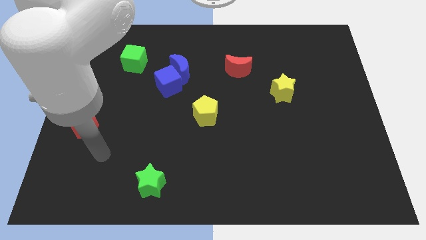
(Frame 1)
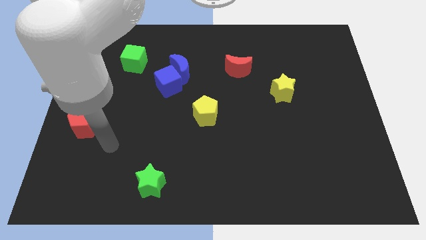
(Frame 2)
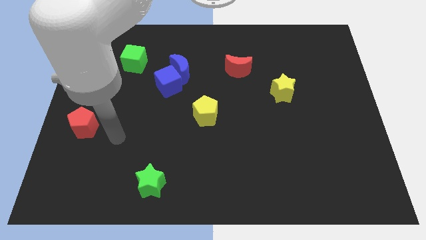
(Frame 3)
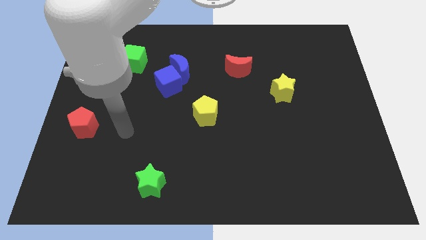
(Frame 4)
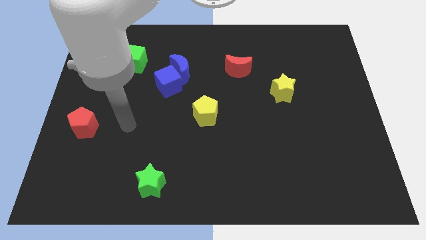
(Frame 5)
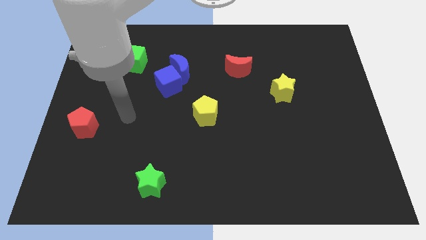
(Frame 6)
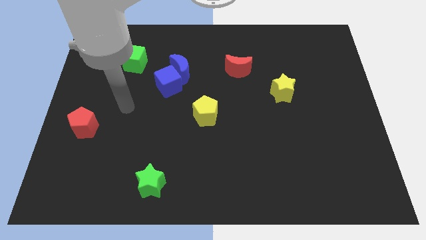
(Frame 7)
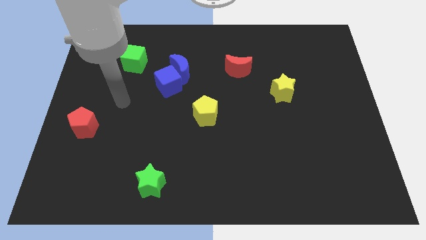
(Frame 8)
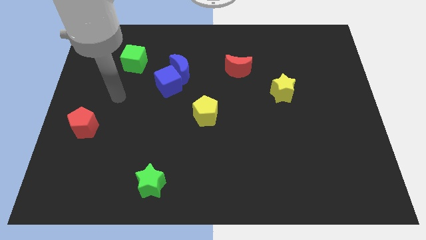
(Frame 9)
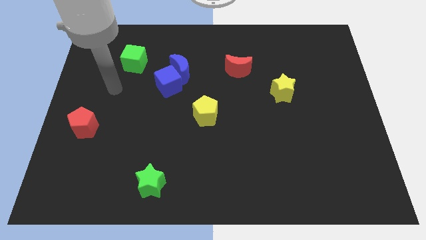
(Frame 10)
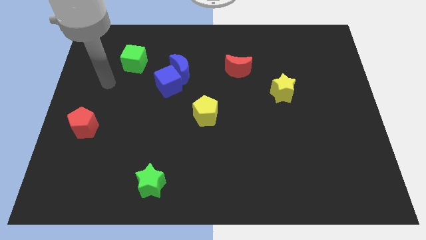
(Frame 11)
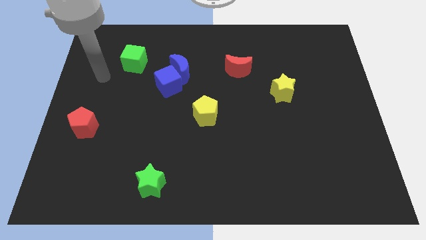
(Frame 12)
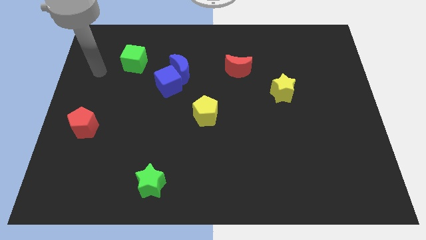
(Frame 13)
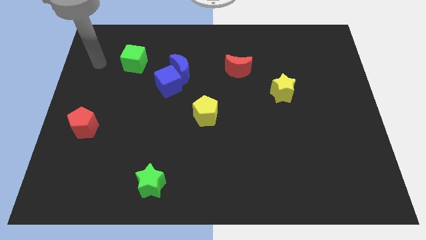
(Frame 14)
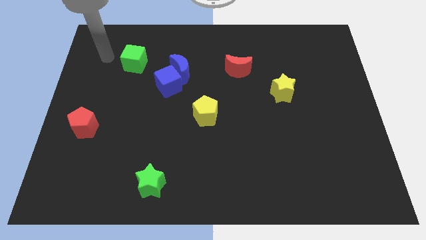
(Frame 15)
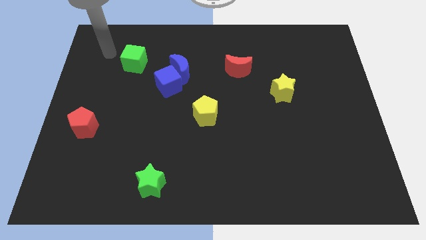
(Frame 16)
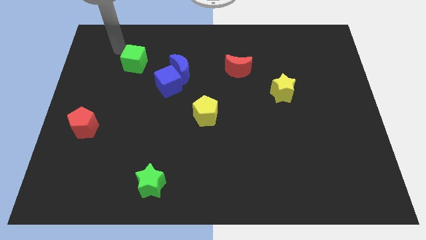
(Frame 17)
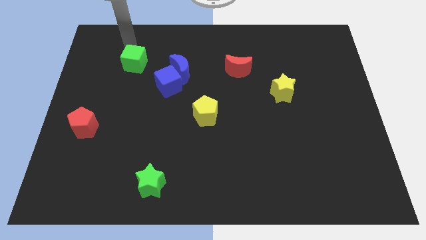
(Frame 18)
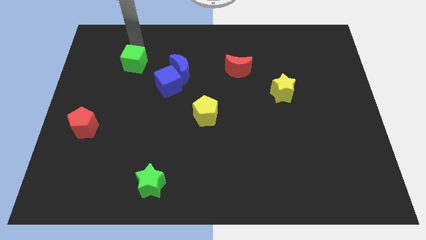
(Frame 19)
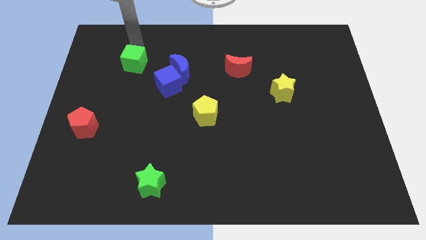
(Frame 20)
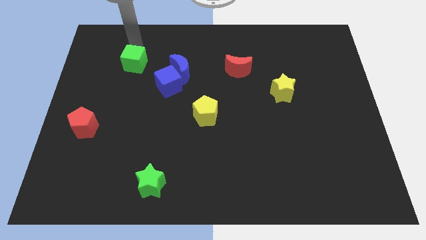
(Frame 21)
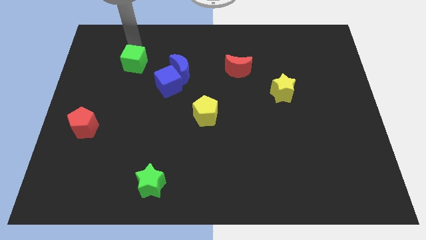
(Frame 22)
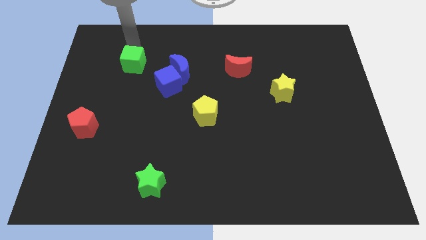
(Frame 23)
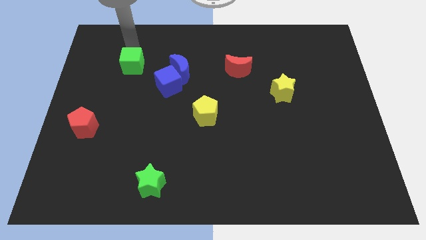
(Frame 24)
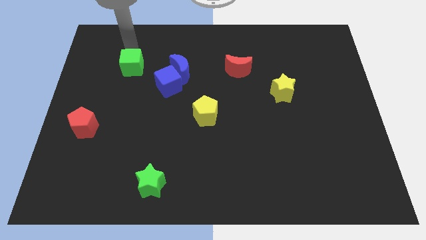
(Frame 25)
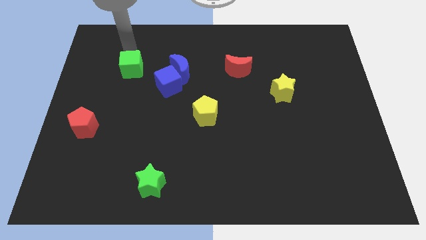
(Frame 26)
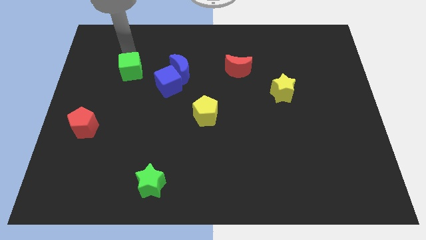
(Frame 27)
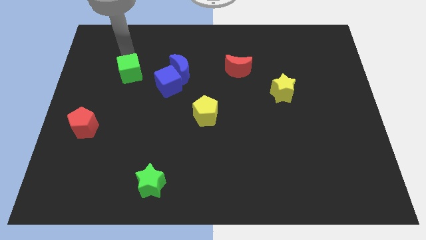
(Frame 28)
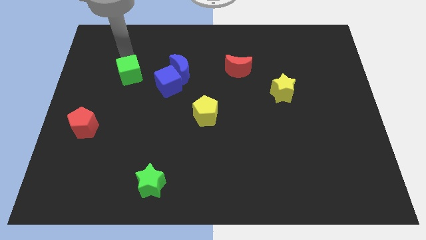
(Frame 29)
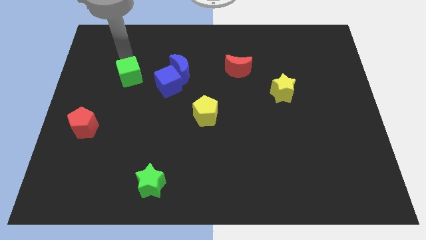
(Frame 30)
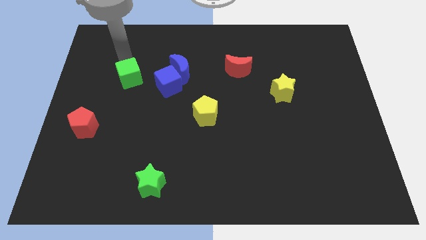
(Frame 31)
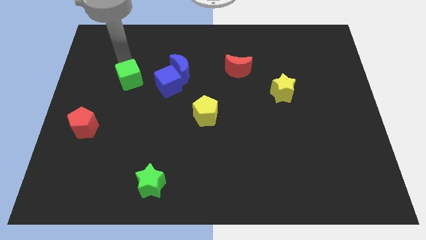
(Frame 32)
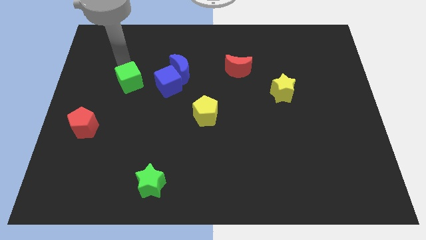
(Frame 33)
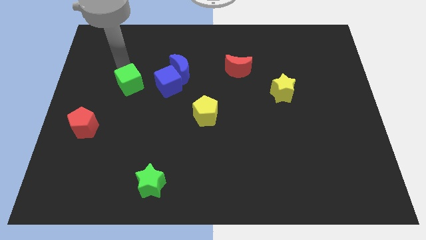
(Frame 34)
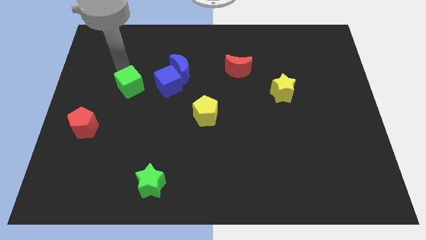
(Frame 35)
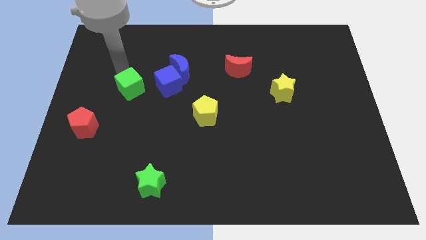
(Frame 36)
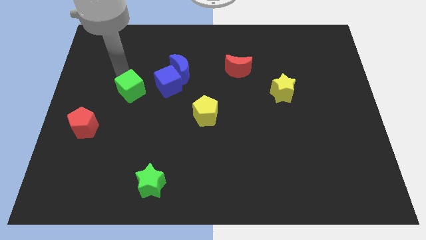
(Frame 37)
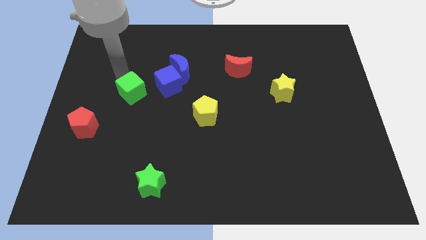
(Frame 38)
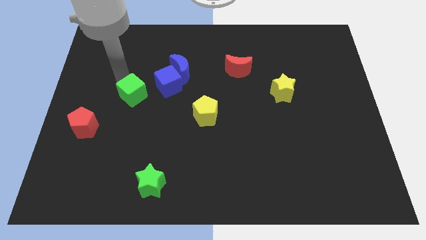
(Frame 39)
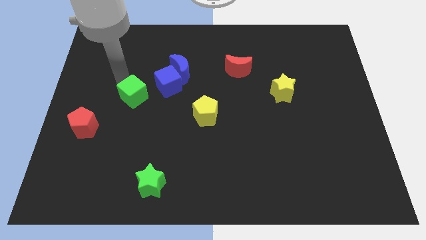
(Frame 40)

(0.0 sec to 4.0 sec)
slightly move the green cube down and to the right

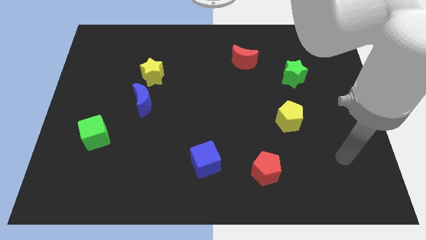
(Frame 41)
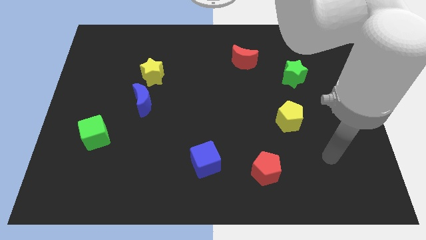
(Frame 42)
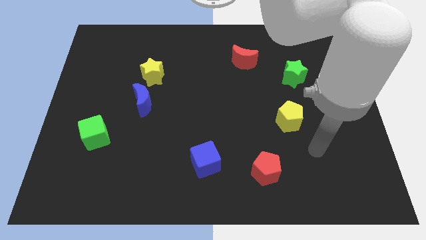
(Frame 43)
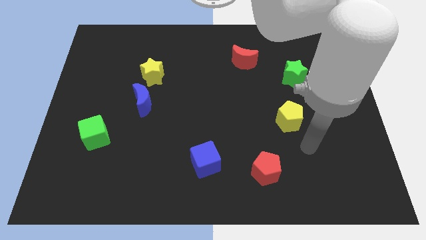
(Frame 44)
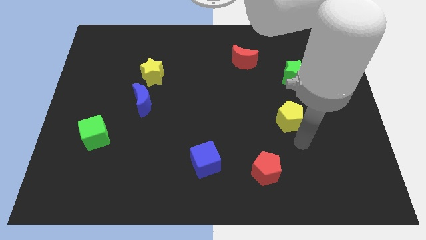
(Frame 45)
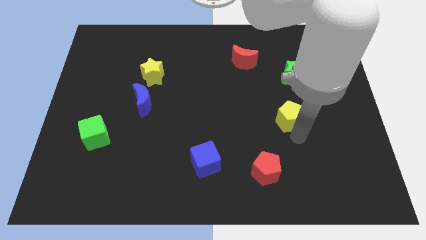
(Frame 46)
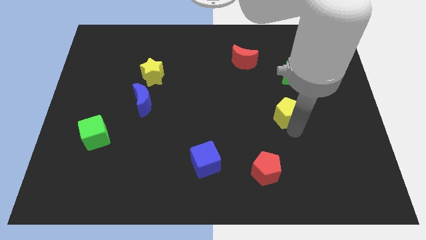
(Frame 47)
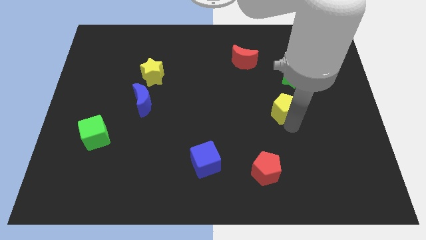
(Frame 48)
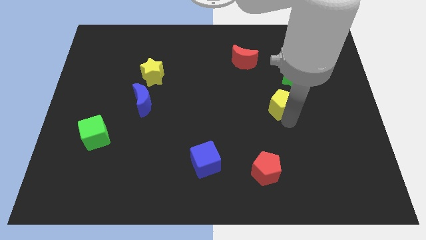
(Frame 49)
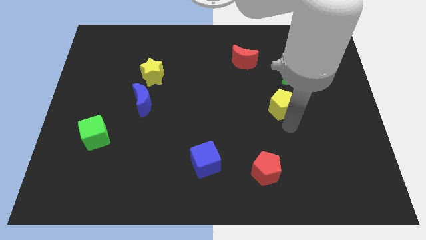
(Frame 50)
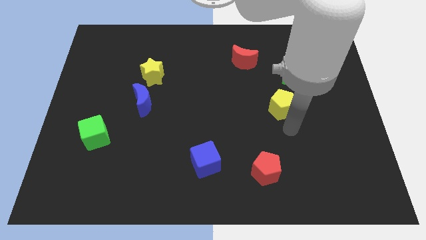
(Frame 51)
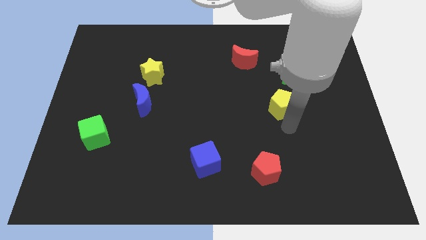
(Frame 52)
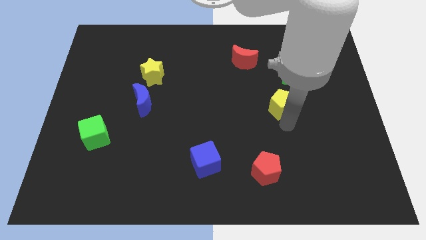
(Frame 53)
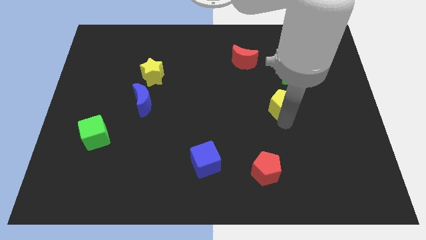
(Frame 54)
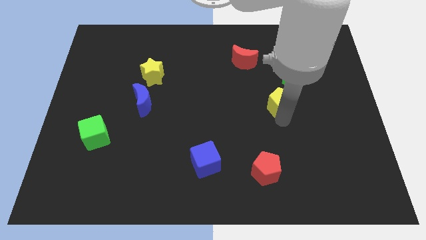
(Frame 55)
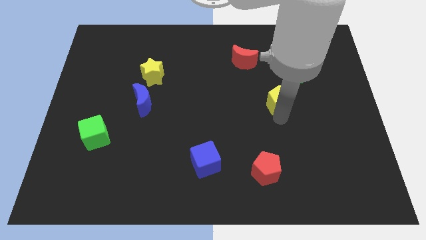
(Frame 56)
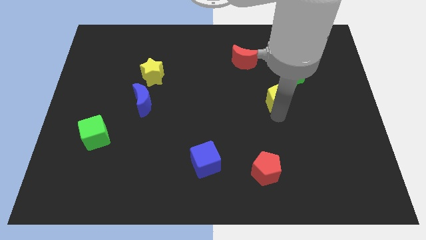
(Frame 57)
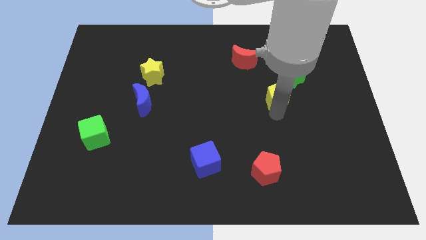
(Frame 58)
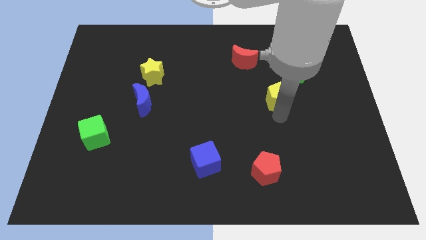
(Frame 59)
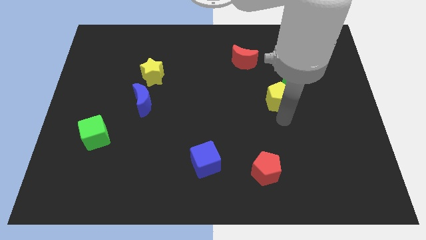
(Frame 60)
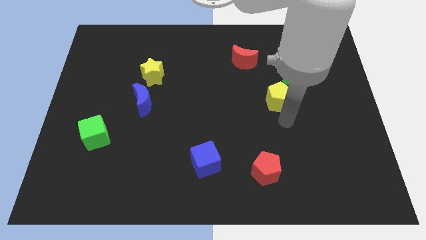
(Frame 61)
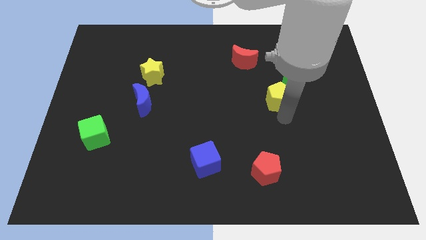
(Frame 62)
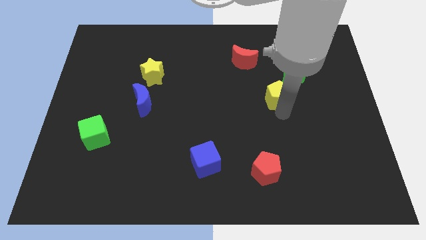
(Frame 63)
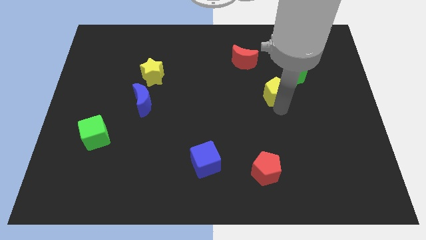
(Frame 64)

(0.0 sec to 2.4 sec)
slightly move the yellow pentagon upwards

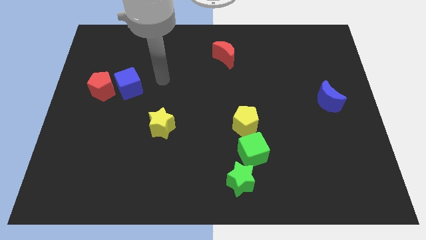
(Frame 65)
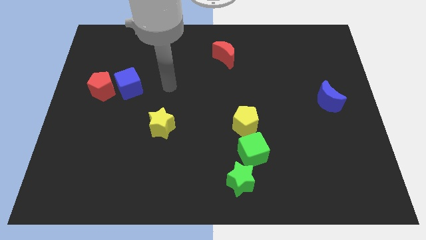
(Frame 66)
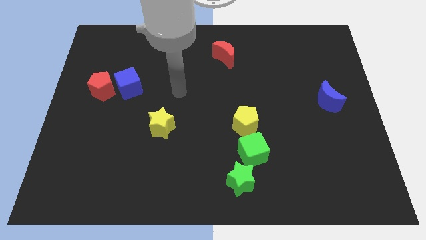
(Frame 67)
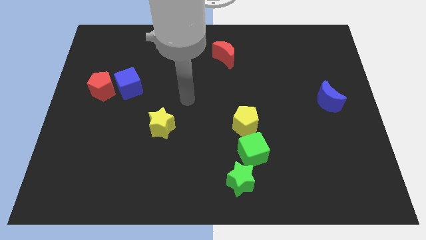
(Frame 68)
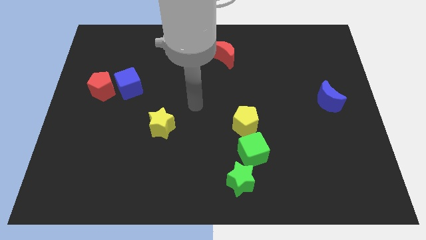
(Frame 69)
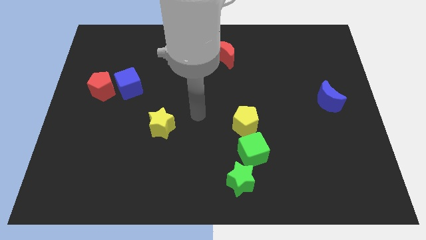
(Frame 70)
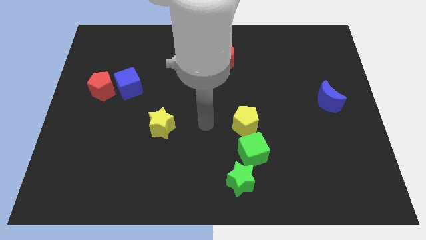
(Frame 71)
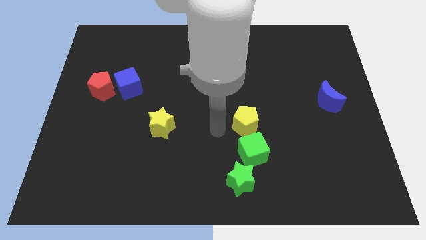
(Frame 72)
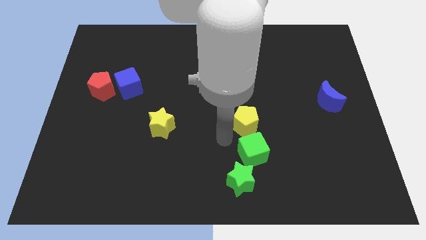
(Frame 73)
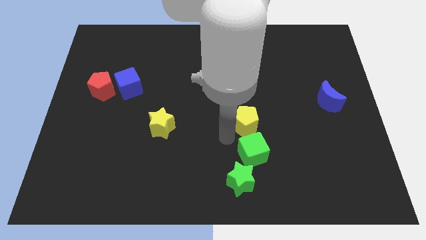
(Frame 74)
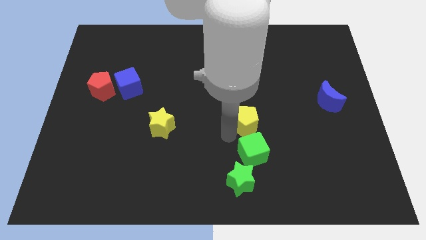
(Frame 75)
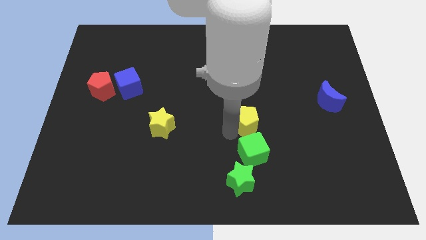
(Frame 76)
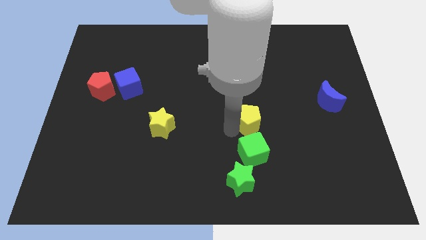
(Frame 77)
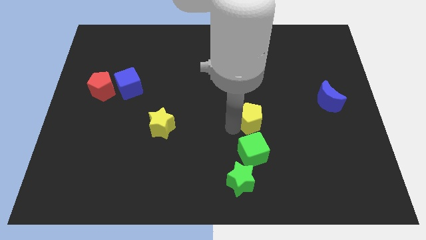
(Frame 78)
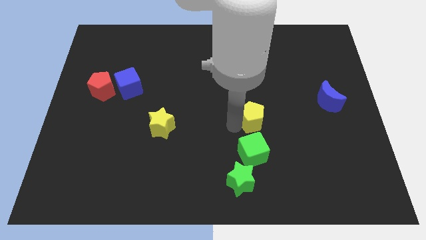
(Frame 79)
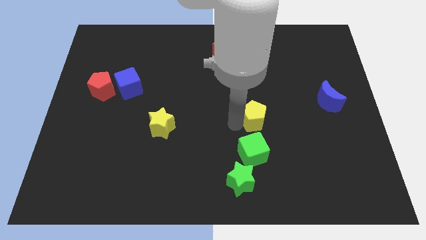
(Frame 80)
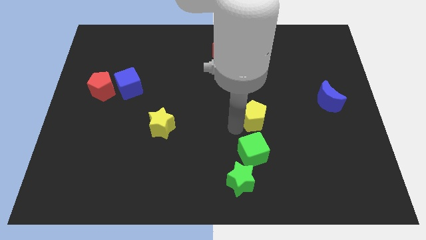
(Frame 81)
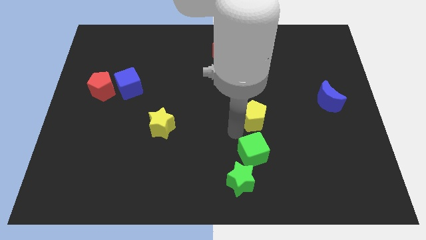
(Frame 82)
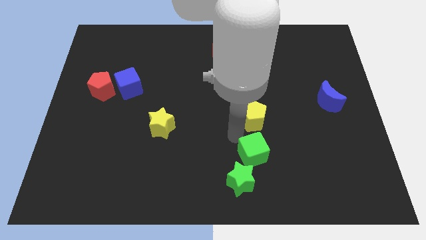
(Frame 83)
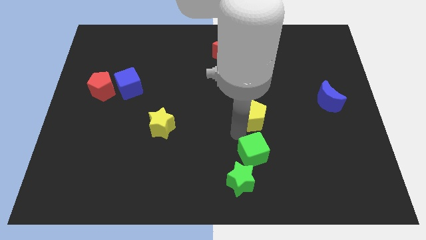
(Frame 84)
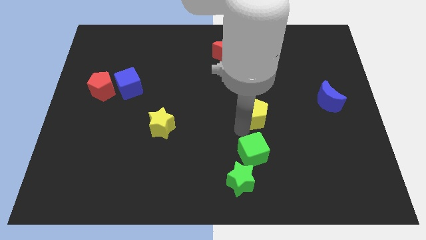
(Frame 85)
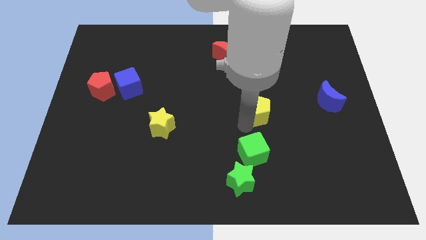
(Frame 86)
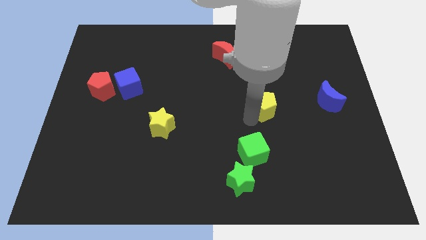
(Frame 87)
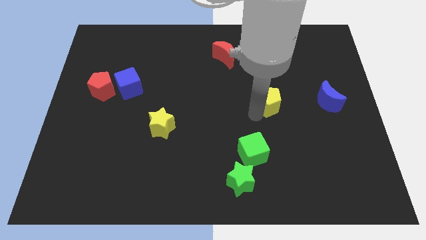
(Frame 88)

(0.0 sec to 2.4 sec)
slightly move the yellow pentagon diagonally upwards and to the right
